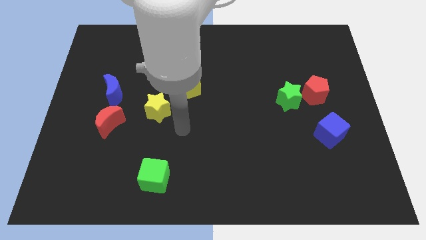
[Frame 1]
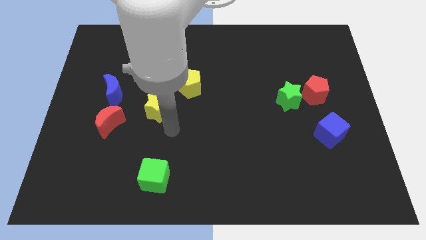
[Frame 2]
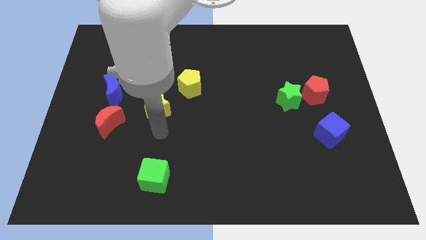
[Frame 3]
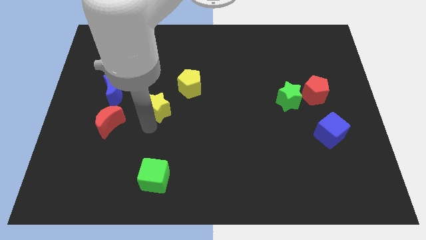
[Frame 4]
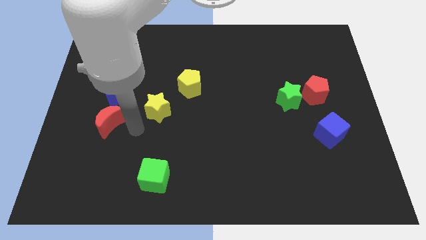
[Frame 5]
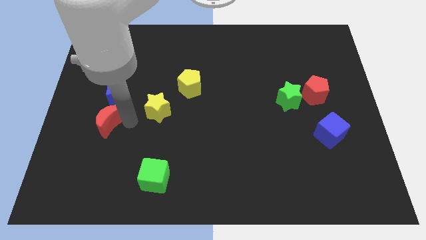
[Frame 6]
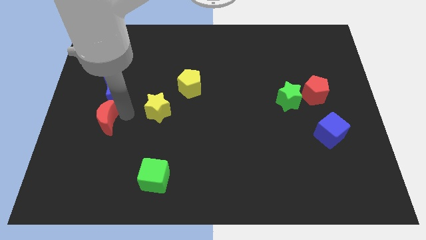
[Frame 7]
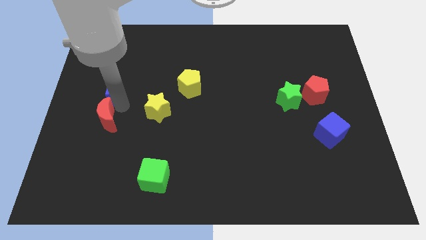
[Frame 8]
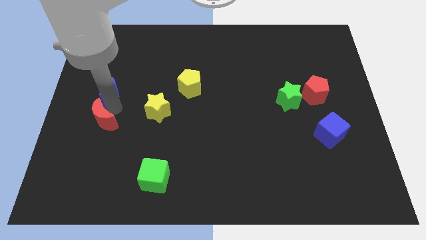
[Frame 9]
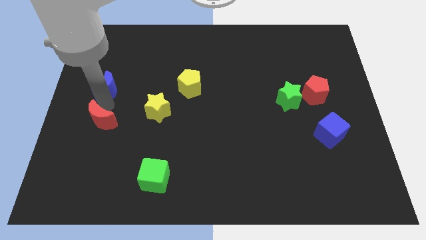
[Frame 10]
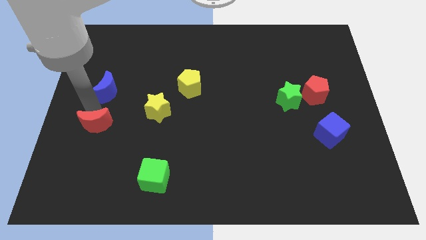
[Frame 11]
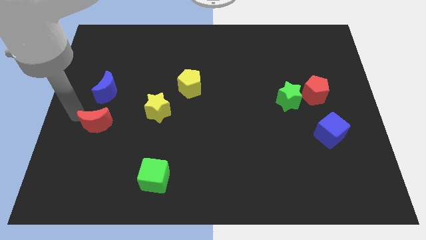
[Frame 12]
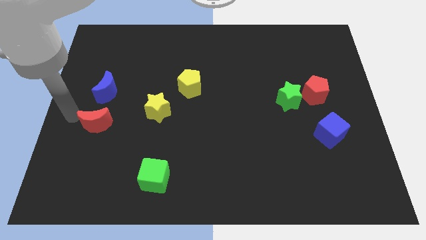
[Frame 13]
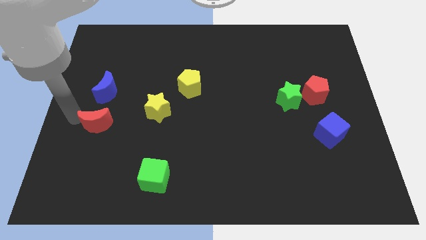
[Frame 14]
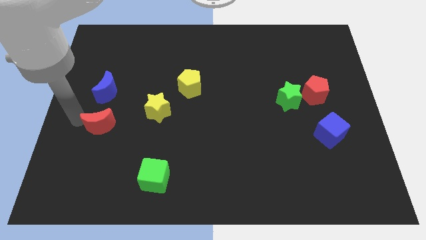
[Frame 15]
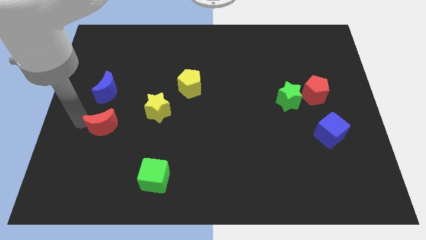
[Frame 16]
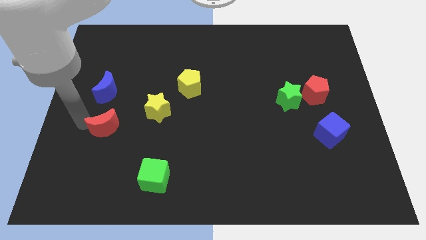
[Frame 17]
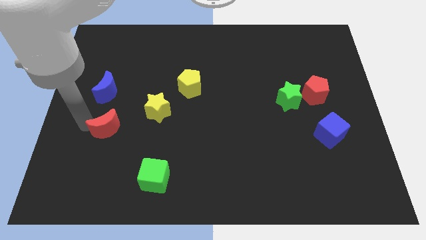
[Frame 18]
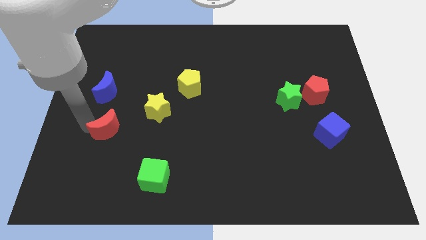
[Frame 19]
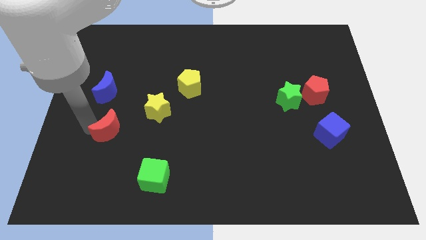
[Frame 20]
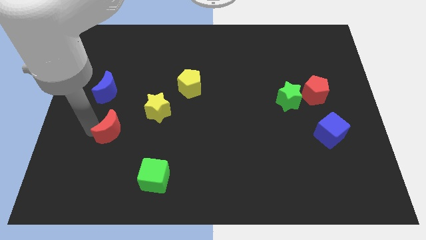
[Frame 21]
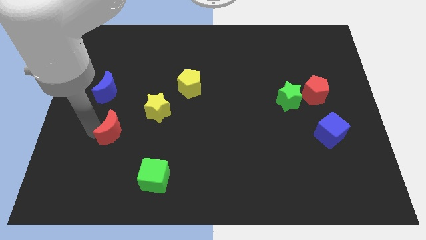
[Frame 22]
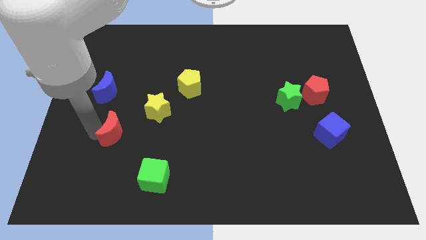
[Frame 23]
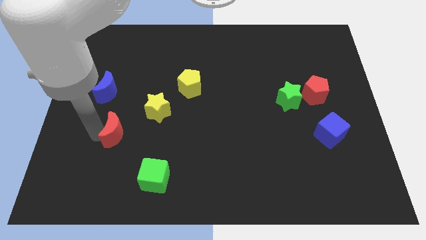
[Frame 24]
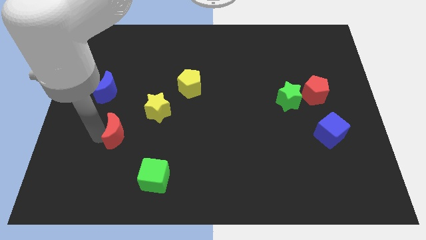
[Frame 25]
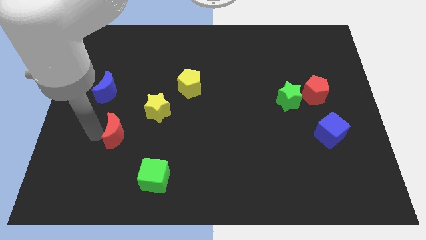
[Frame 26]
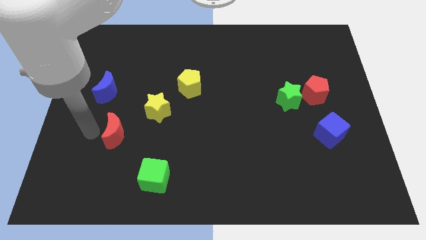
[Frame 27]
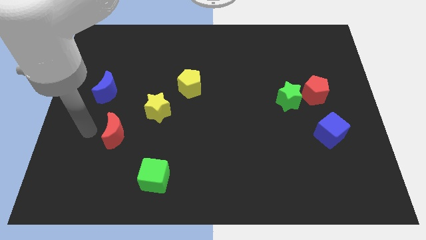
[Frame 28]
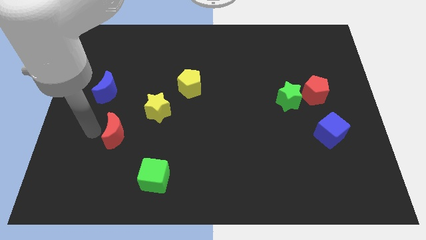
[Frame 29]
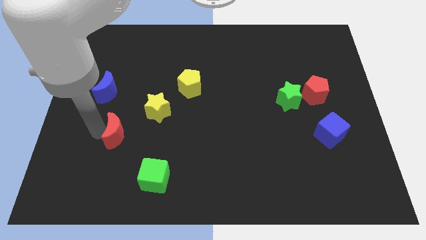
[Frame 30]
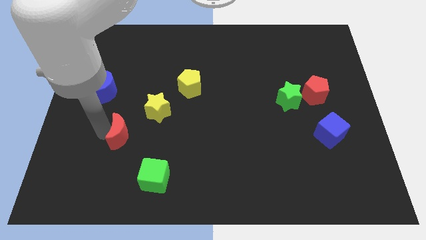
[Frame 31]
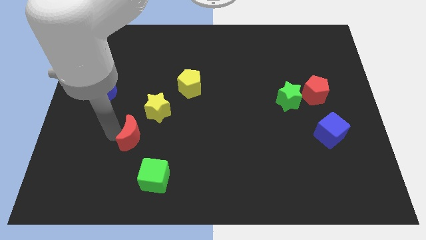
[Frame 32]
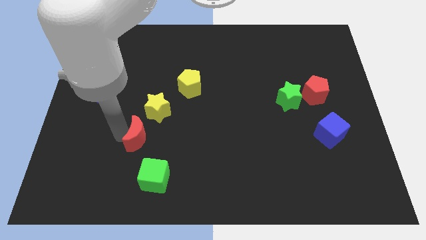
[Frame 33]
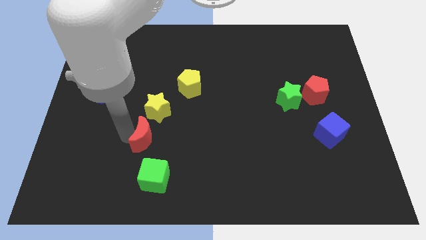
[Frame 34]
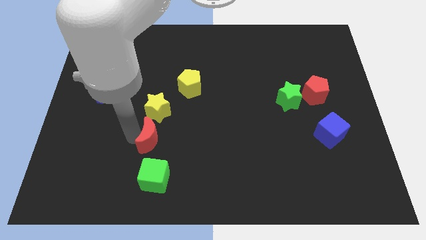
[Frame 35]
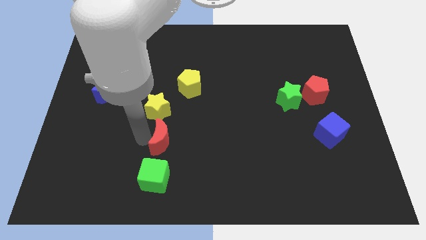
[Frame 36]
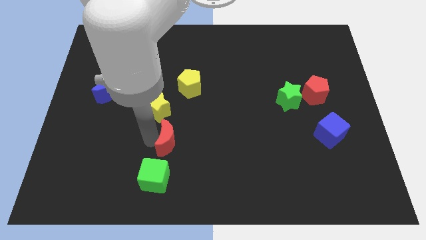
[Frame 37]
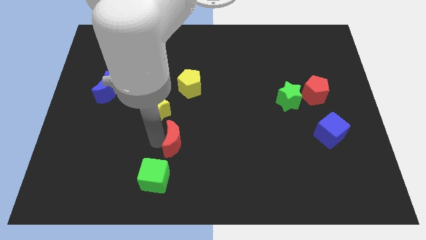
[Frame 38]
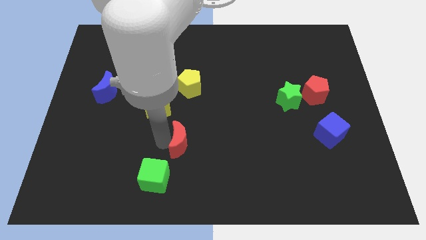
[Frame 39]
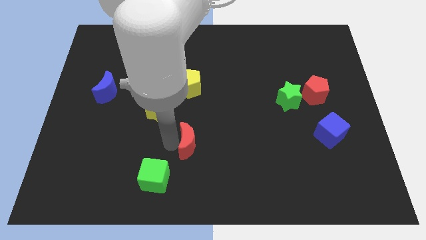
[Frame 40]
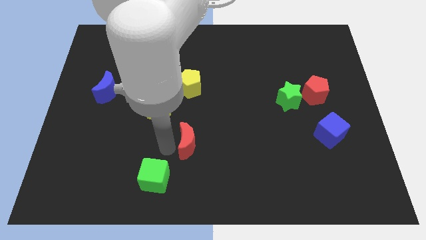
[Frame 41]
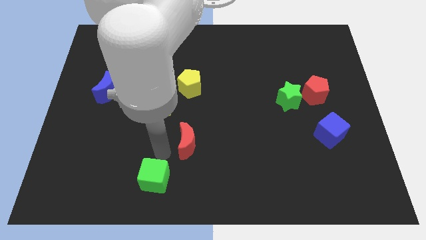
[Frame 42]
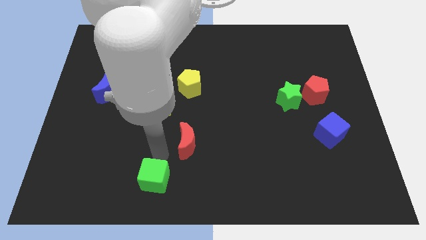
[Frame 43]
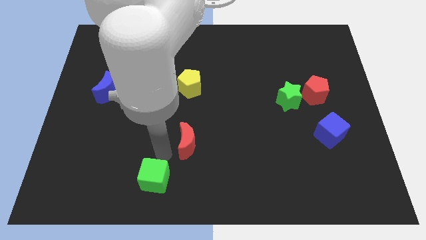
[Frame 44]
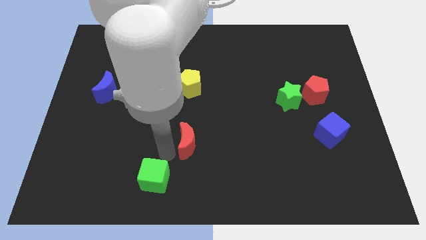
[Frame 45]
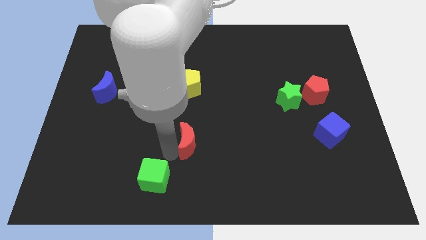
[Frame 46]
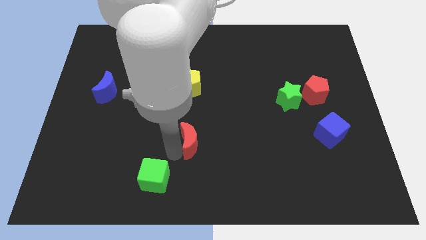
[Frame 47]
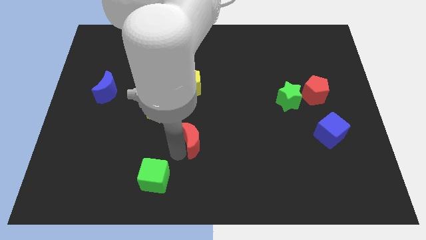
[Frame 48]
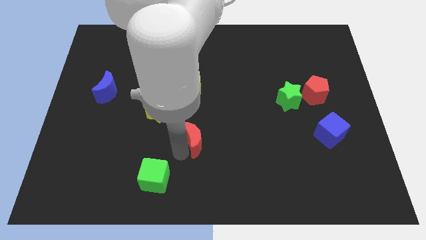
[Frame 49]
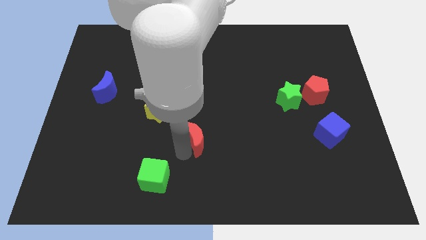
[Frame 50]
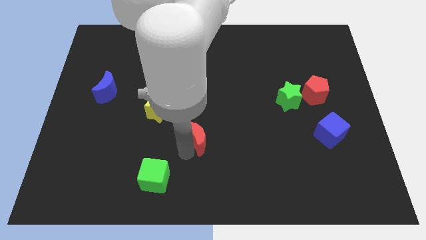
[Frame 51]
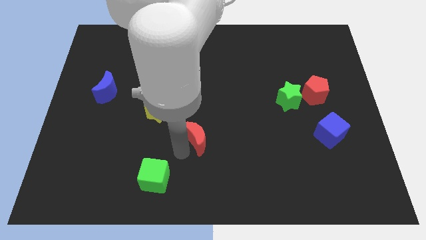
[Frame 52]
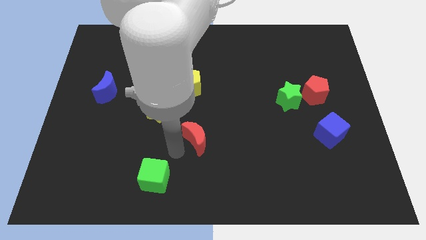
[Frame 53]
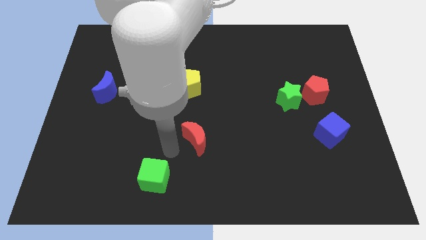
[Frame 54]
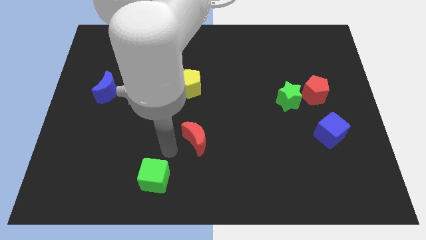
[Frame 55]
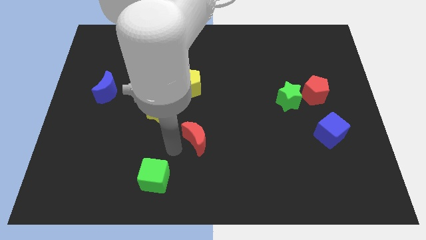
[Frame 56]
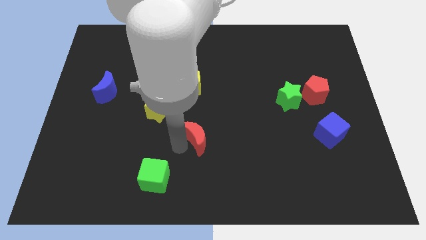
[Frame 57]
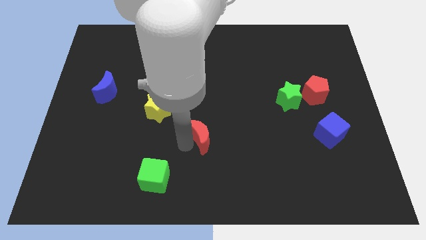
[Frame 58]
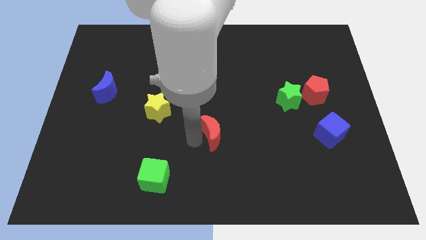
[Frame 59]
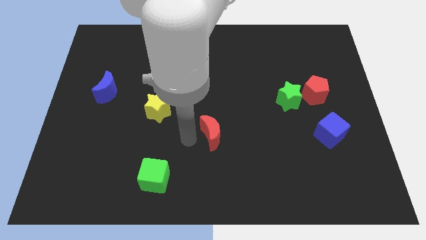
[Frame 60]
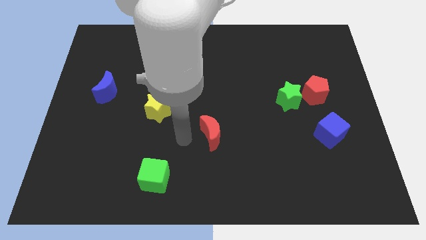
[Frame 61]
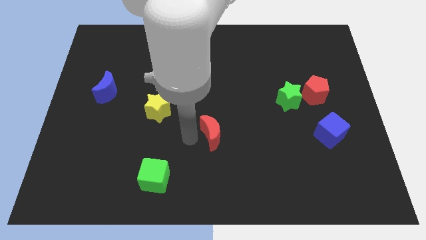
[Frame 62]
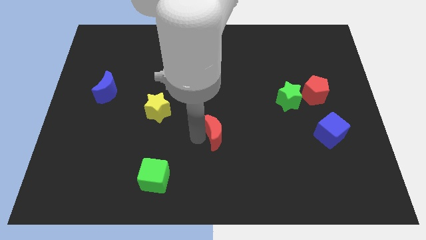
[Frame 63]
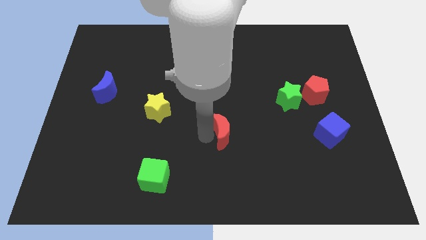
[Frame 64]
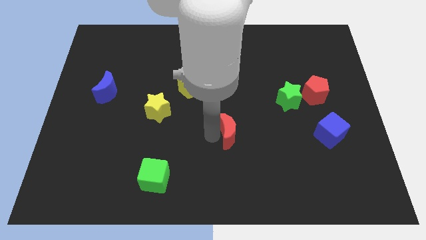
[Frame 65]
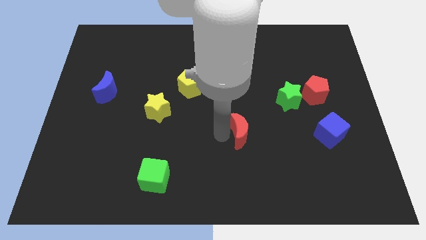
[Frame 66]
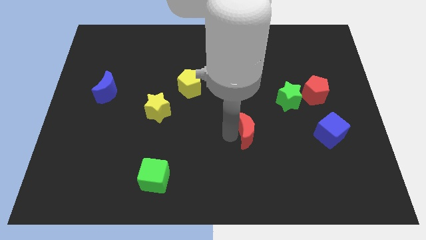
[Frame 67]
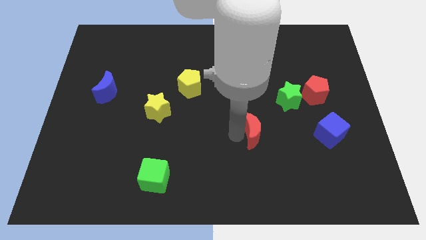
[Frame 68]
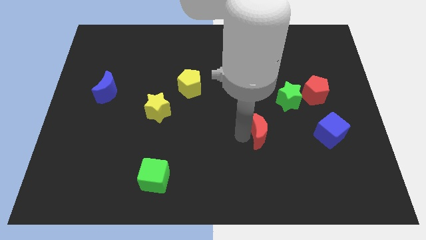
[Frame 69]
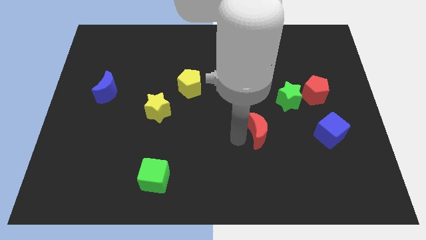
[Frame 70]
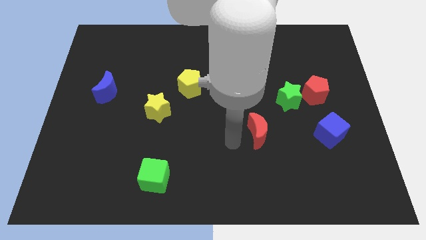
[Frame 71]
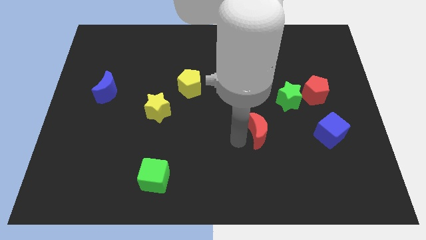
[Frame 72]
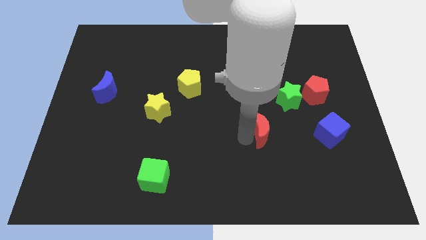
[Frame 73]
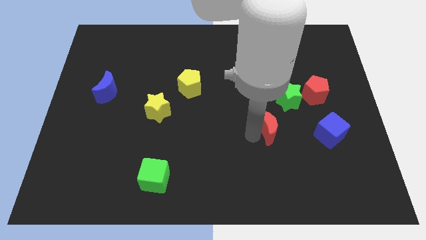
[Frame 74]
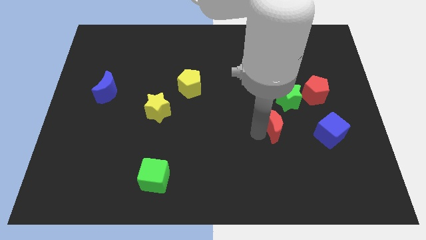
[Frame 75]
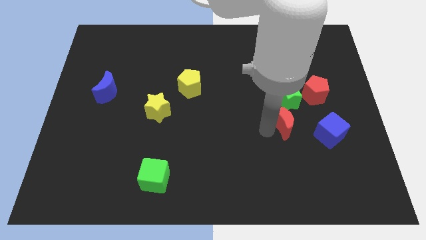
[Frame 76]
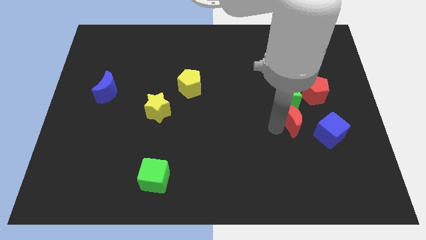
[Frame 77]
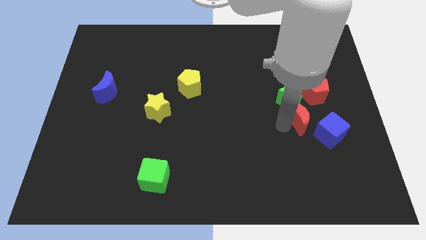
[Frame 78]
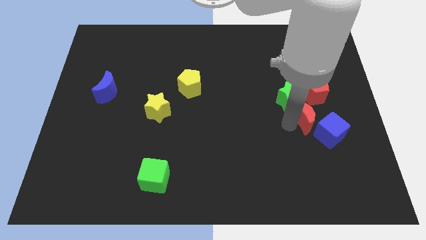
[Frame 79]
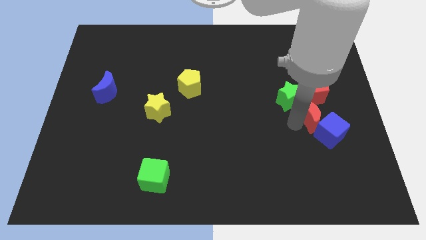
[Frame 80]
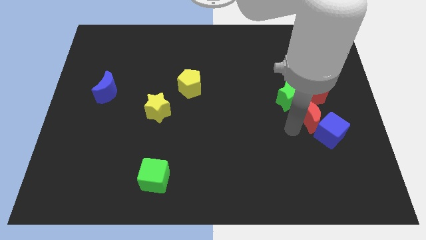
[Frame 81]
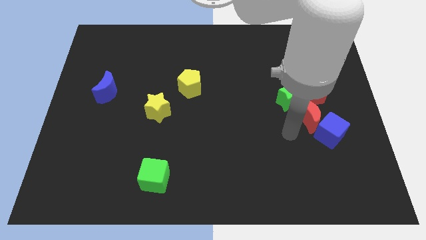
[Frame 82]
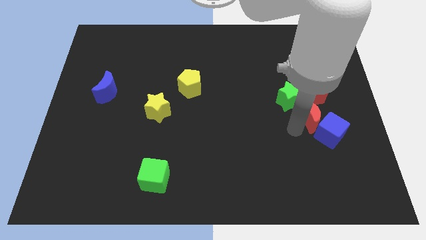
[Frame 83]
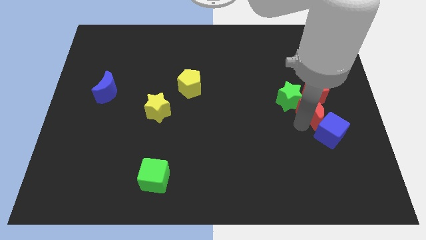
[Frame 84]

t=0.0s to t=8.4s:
slide the red moon to the right of the green star
